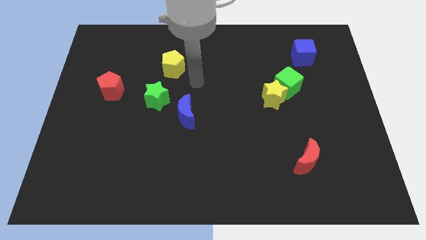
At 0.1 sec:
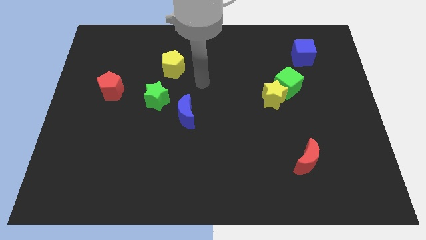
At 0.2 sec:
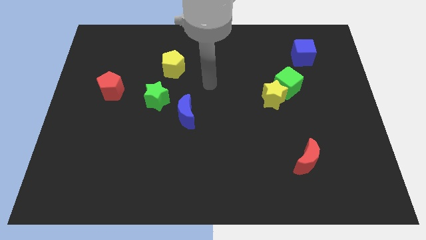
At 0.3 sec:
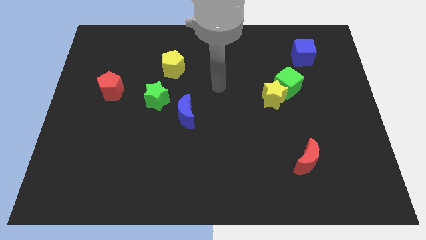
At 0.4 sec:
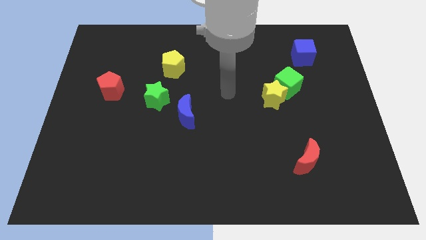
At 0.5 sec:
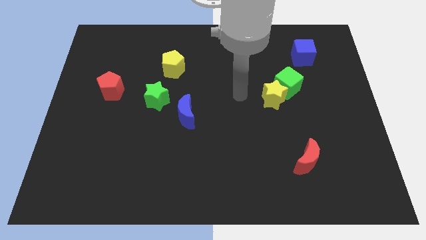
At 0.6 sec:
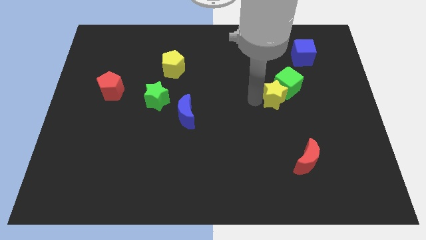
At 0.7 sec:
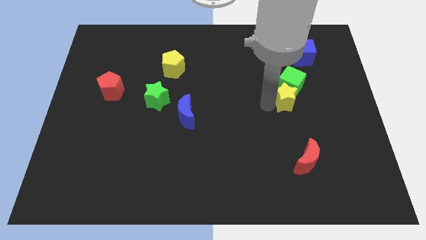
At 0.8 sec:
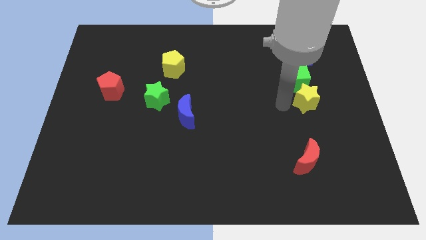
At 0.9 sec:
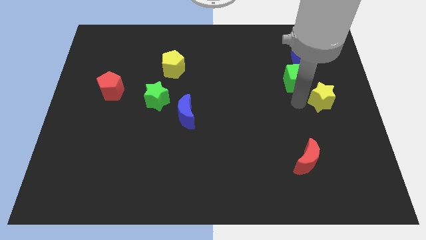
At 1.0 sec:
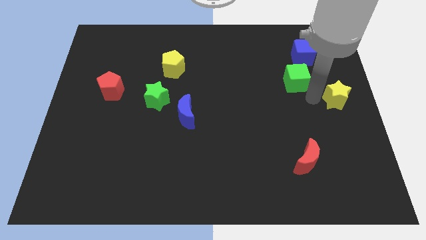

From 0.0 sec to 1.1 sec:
separate the green cube from the yellow star

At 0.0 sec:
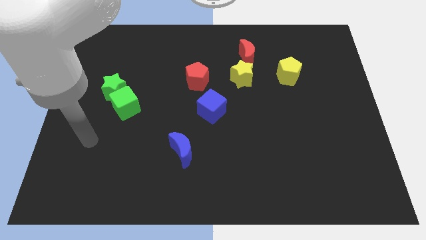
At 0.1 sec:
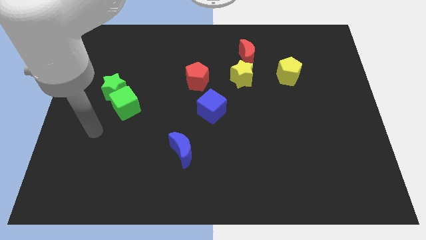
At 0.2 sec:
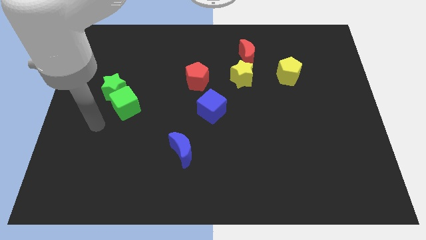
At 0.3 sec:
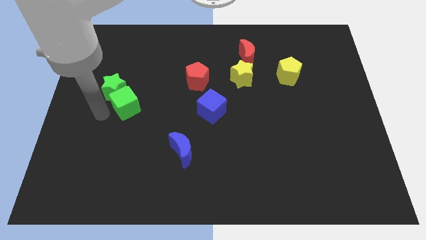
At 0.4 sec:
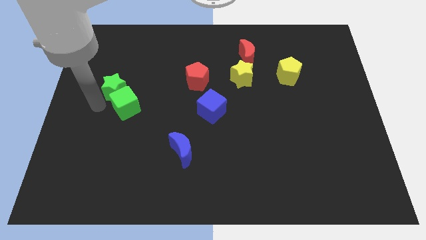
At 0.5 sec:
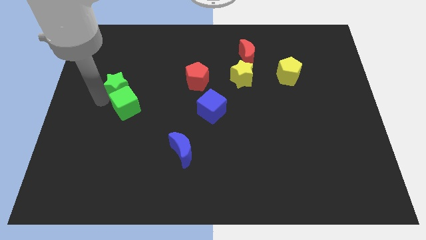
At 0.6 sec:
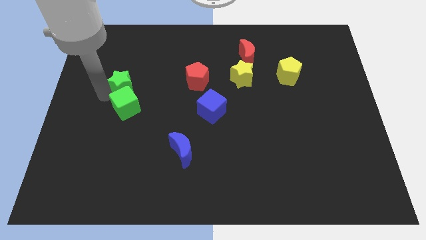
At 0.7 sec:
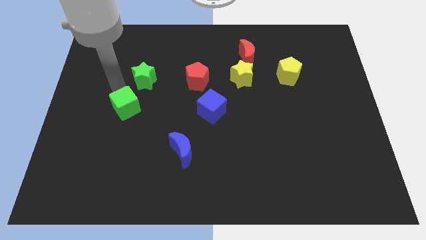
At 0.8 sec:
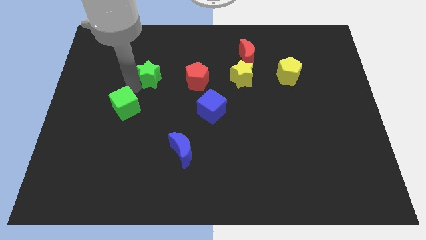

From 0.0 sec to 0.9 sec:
pull the green cube apart from the green star

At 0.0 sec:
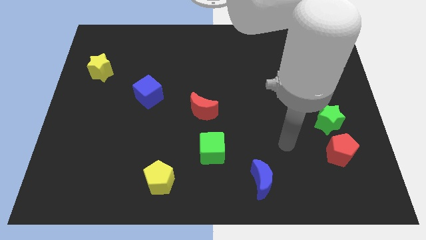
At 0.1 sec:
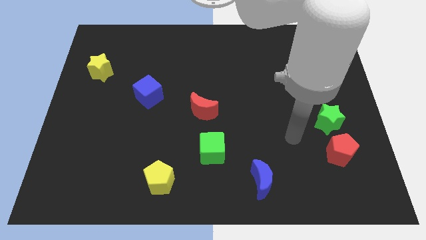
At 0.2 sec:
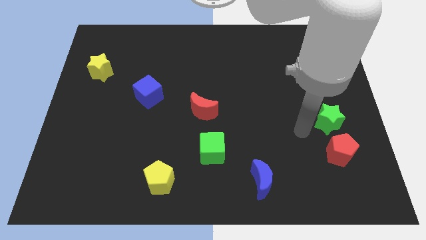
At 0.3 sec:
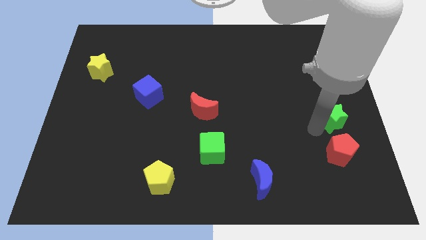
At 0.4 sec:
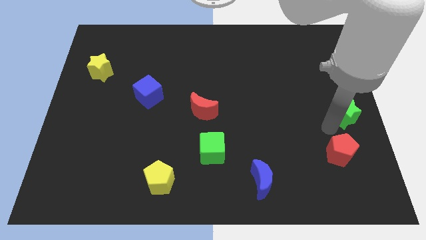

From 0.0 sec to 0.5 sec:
move the red pentagon away from the green star

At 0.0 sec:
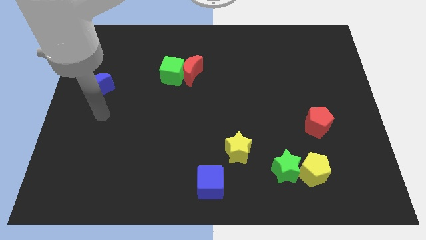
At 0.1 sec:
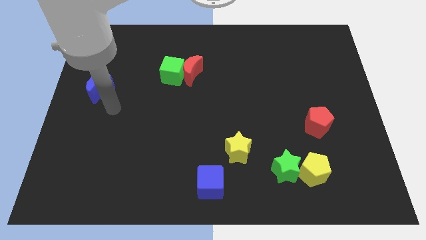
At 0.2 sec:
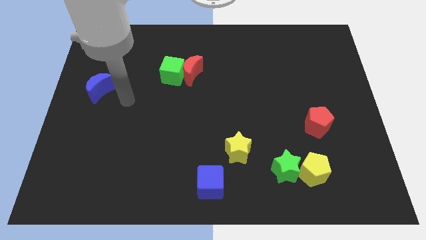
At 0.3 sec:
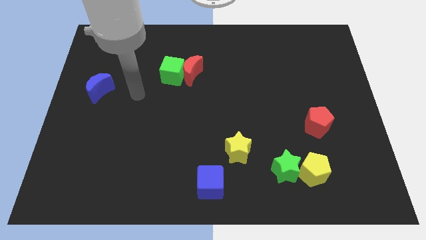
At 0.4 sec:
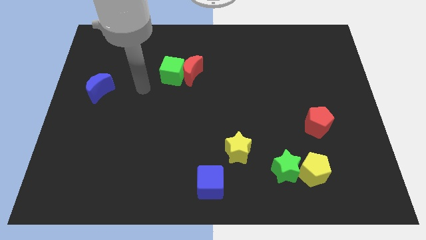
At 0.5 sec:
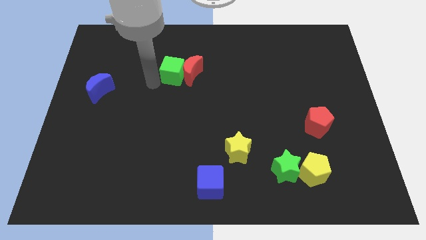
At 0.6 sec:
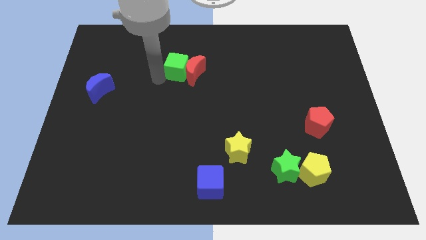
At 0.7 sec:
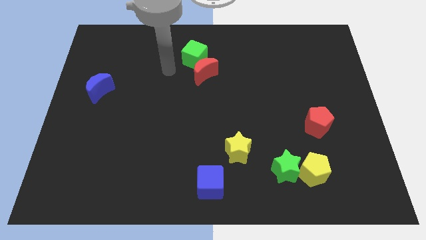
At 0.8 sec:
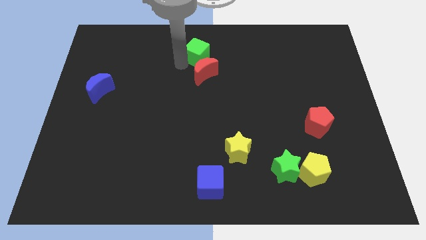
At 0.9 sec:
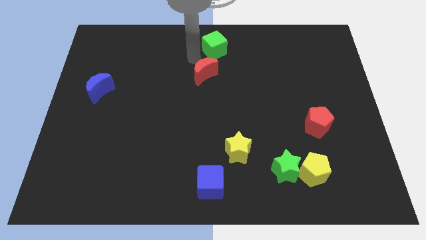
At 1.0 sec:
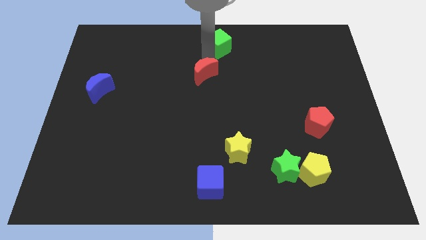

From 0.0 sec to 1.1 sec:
move the red moon away from the green cube

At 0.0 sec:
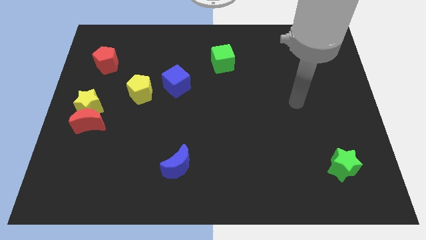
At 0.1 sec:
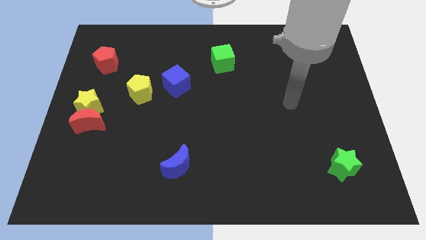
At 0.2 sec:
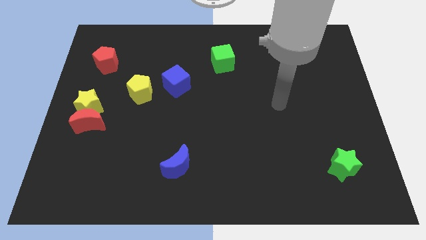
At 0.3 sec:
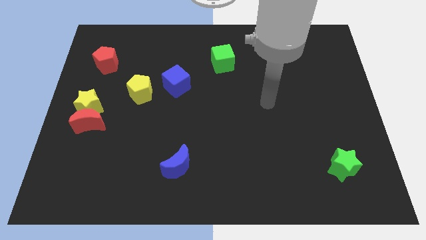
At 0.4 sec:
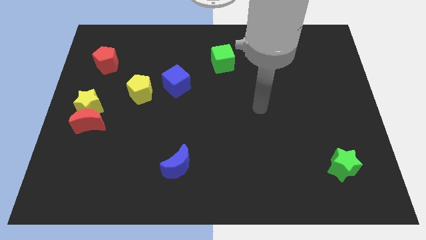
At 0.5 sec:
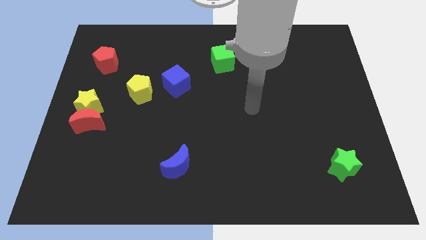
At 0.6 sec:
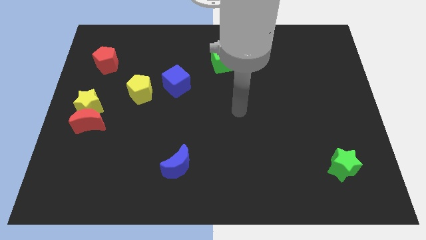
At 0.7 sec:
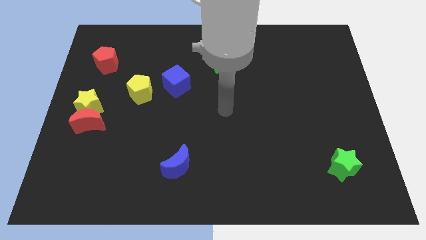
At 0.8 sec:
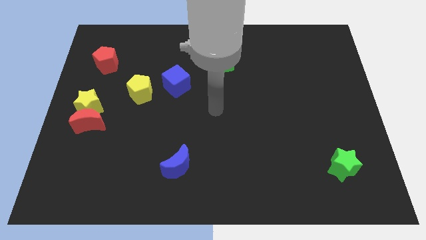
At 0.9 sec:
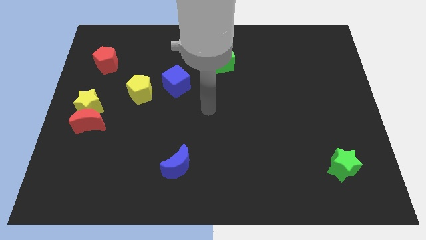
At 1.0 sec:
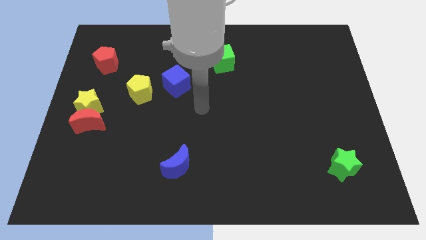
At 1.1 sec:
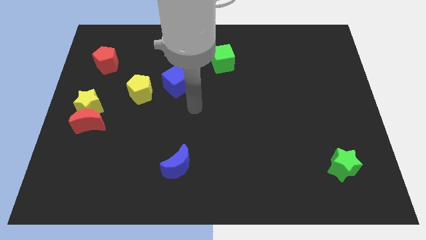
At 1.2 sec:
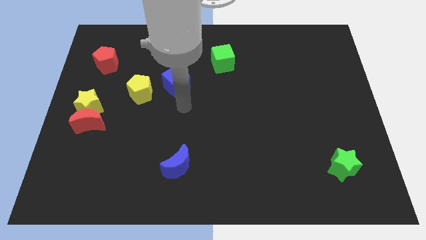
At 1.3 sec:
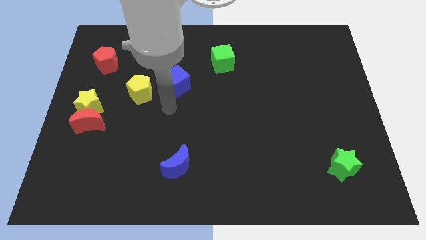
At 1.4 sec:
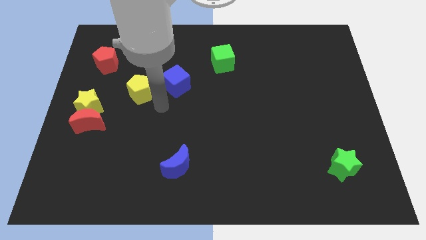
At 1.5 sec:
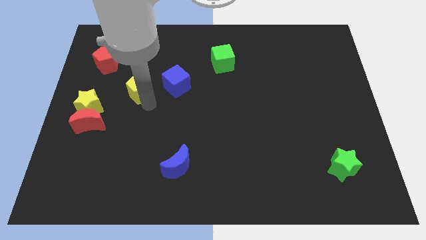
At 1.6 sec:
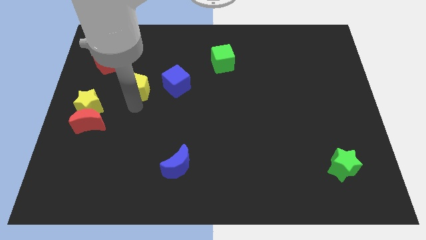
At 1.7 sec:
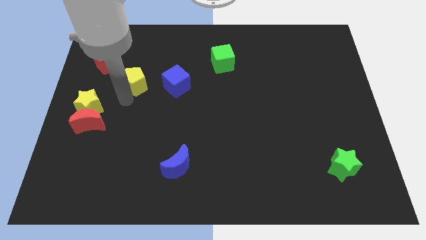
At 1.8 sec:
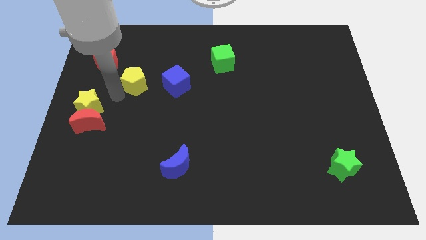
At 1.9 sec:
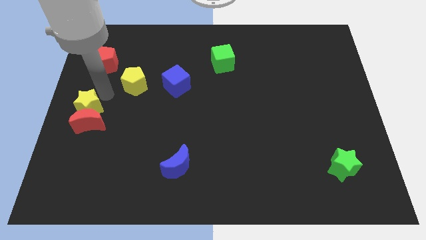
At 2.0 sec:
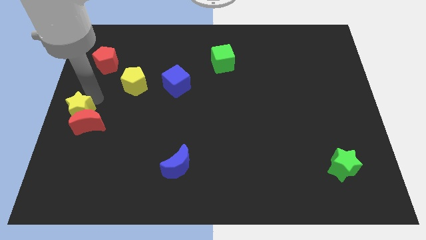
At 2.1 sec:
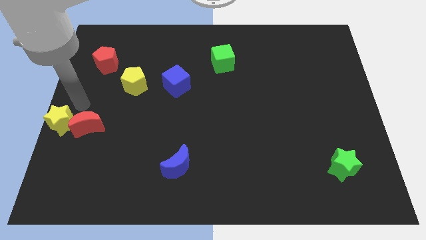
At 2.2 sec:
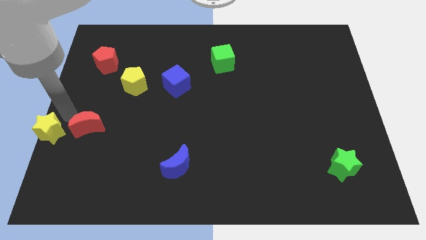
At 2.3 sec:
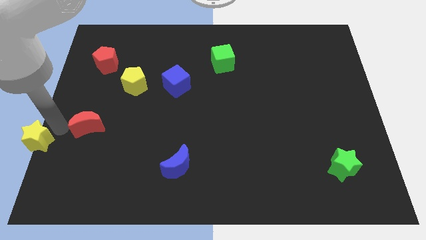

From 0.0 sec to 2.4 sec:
separate the red moon from the yellow star

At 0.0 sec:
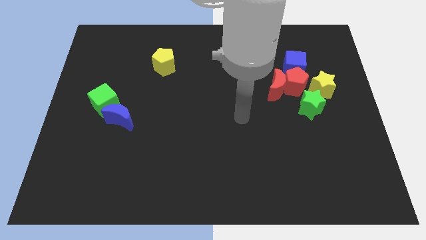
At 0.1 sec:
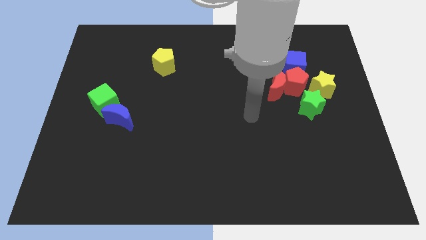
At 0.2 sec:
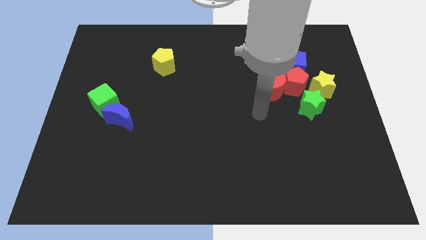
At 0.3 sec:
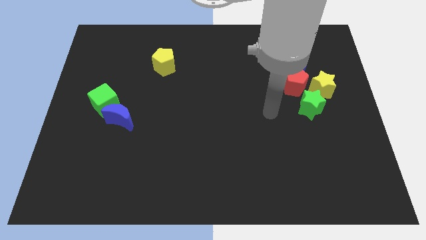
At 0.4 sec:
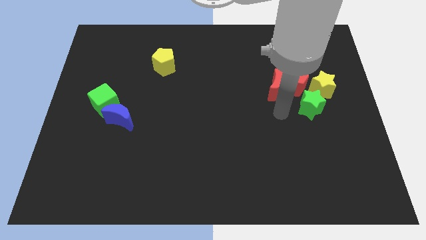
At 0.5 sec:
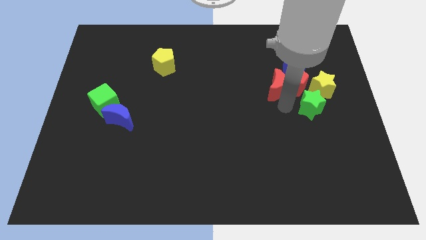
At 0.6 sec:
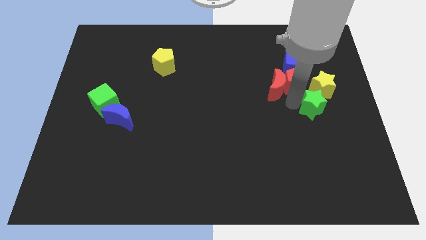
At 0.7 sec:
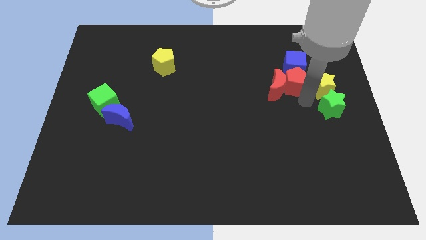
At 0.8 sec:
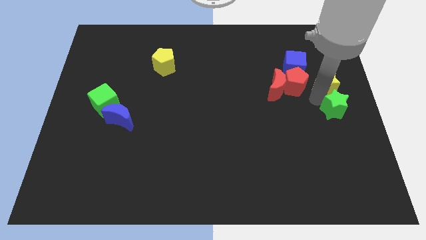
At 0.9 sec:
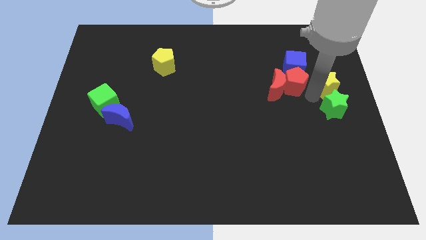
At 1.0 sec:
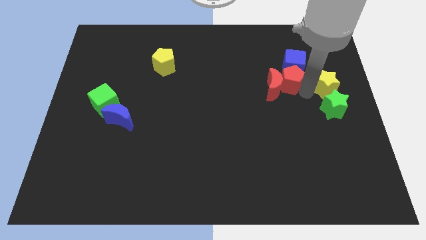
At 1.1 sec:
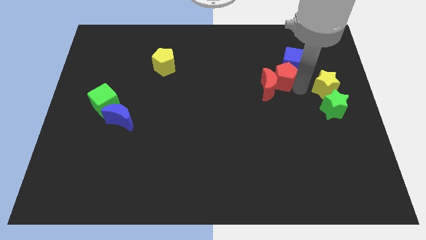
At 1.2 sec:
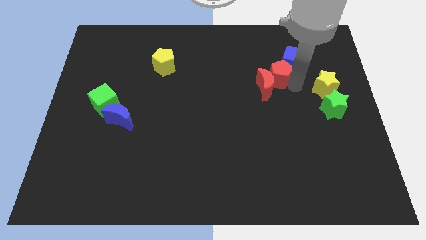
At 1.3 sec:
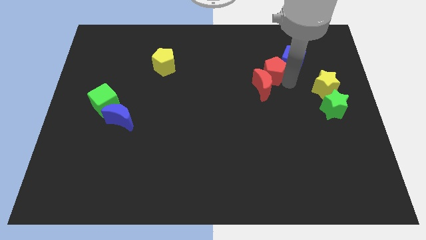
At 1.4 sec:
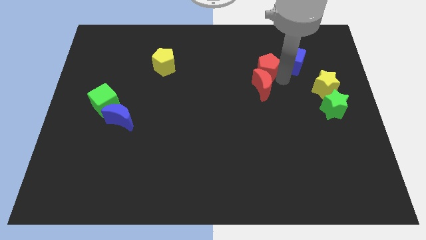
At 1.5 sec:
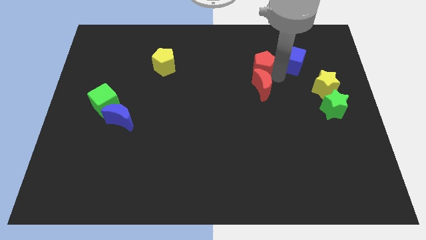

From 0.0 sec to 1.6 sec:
separate the red pentagon from the group

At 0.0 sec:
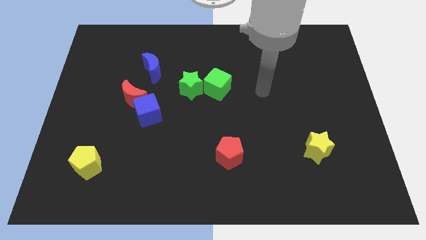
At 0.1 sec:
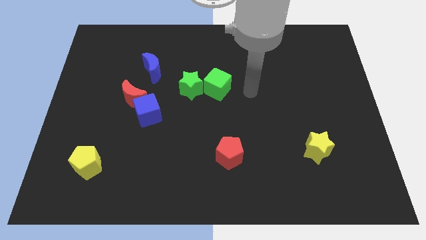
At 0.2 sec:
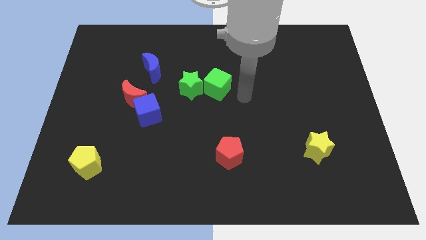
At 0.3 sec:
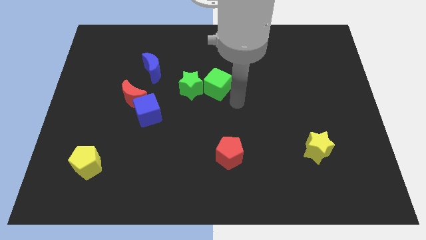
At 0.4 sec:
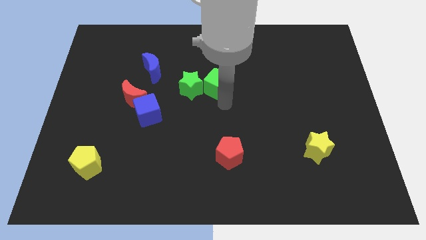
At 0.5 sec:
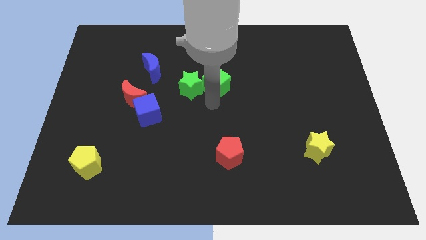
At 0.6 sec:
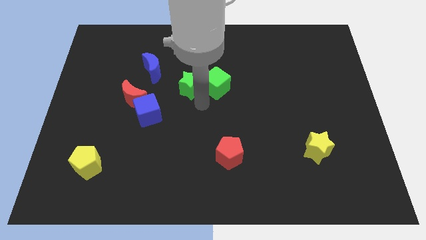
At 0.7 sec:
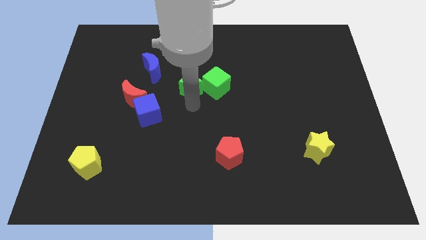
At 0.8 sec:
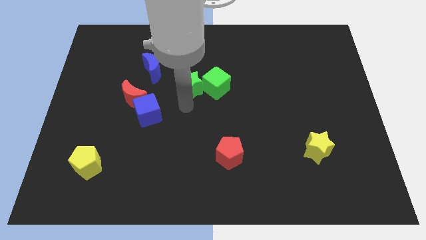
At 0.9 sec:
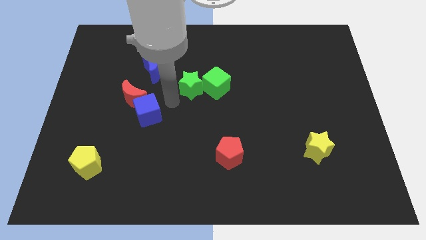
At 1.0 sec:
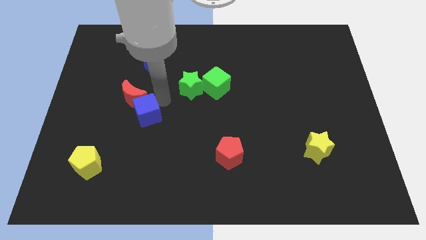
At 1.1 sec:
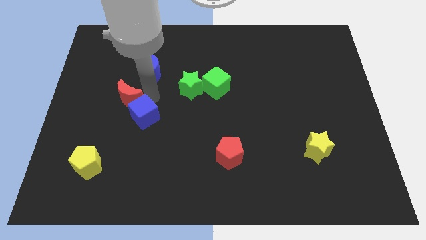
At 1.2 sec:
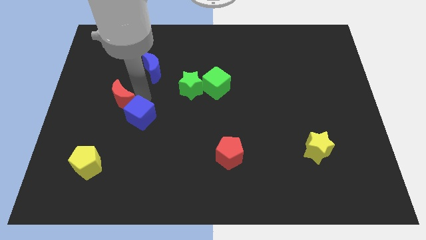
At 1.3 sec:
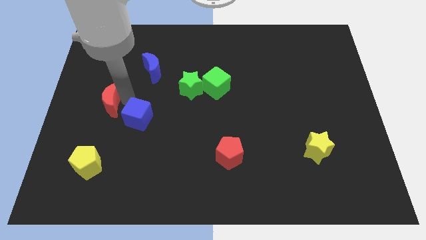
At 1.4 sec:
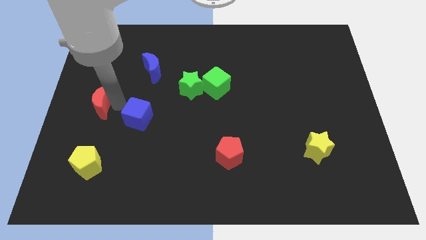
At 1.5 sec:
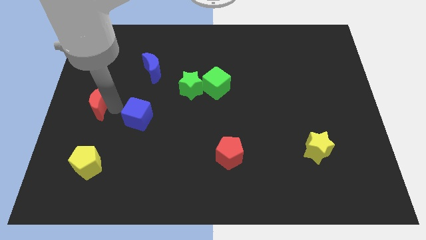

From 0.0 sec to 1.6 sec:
pull the blue cube apart from the red moon

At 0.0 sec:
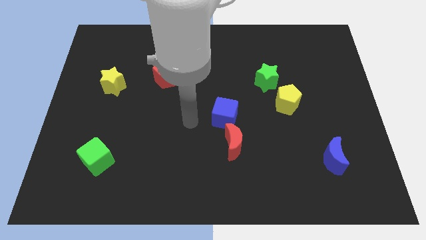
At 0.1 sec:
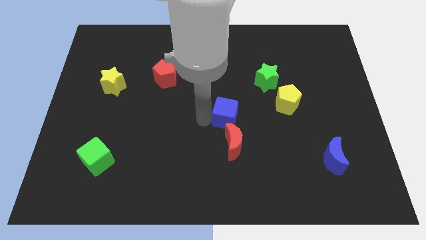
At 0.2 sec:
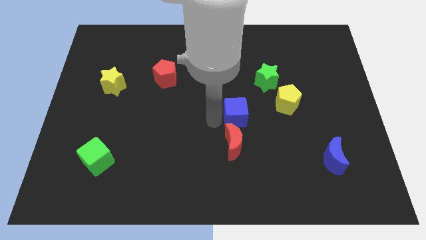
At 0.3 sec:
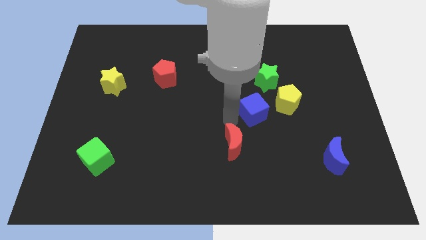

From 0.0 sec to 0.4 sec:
pull the red moon apart from the blue cube
